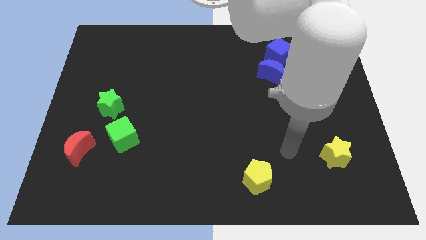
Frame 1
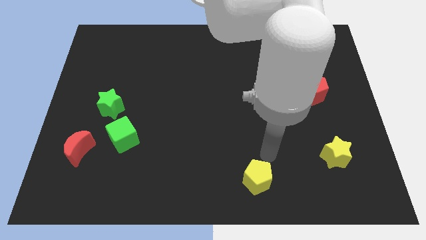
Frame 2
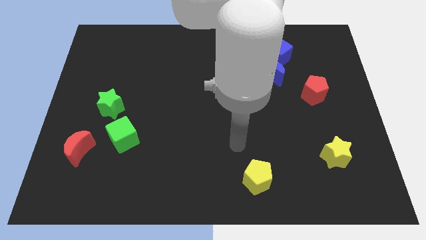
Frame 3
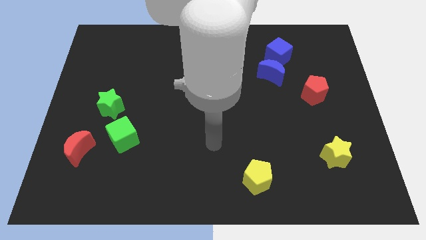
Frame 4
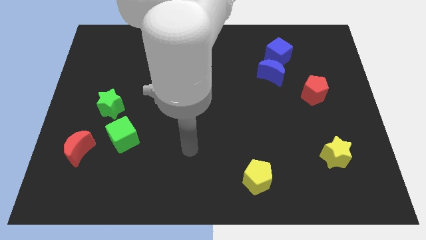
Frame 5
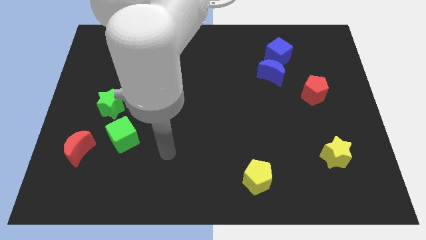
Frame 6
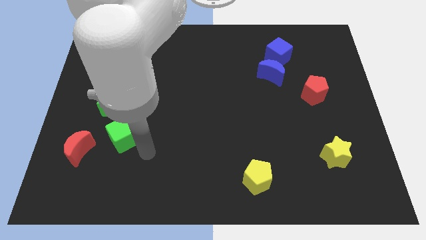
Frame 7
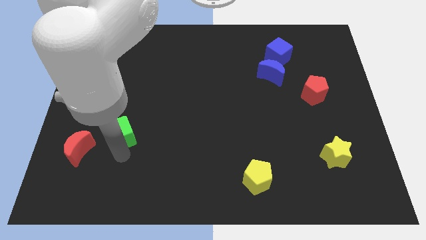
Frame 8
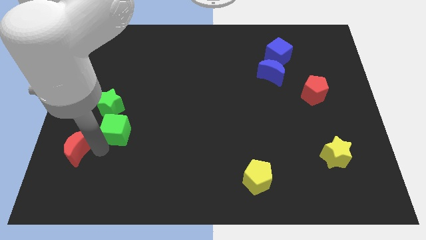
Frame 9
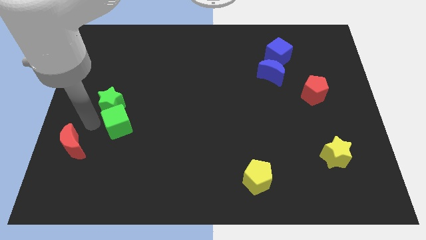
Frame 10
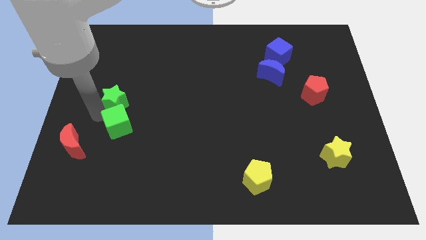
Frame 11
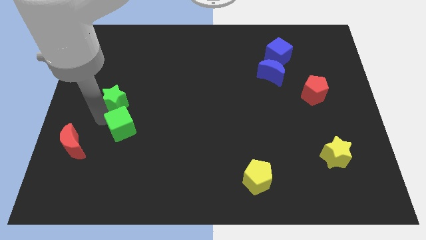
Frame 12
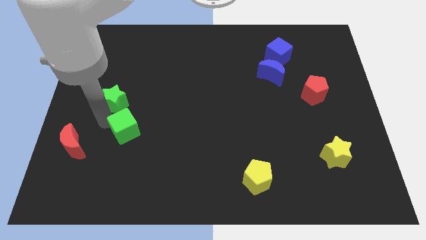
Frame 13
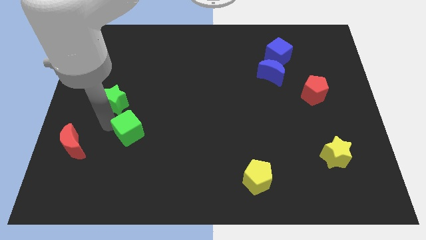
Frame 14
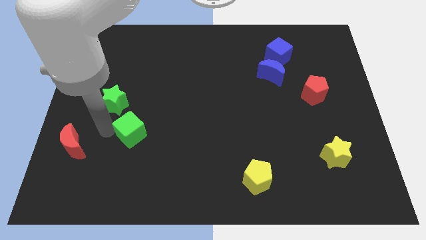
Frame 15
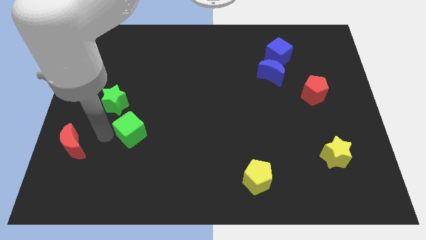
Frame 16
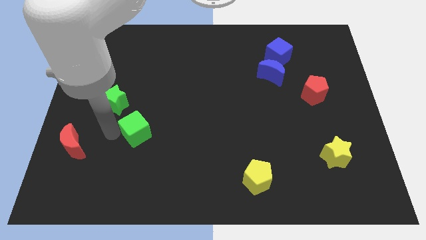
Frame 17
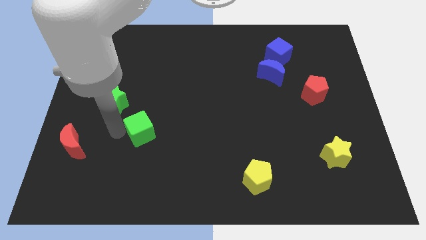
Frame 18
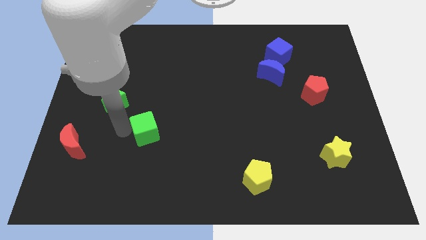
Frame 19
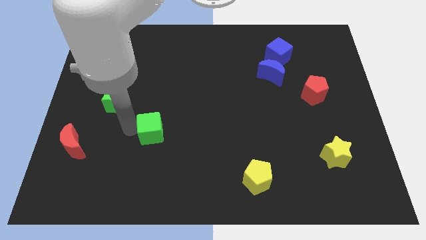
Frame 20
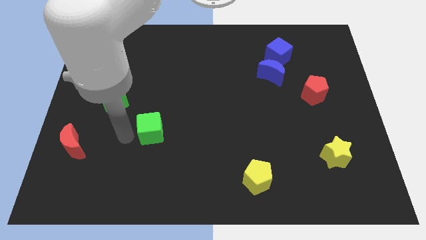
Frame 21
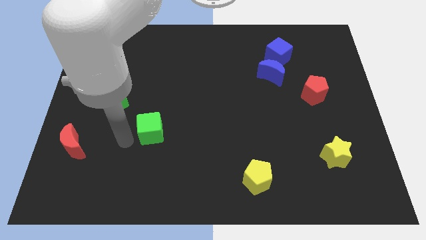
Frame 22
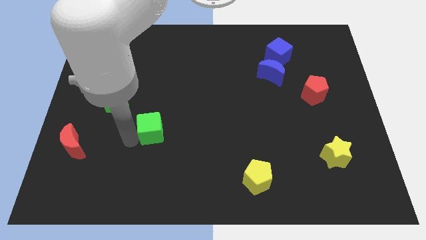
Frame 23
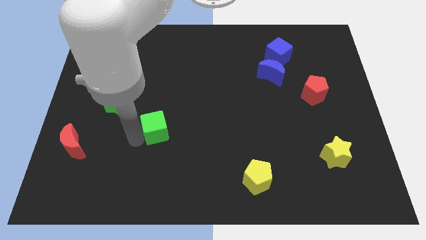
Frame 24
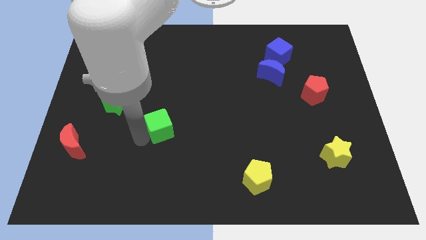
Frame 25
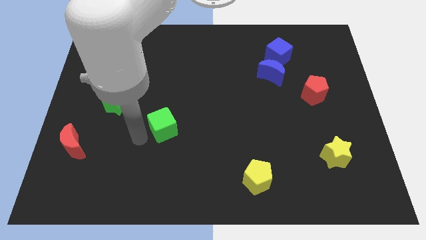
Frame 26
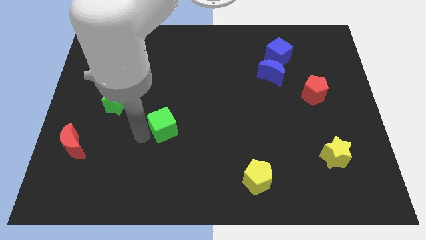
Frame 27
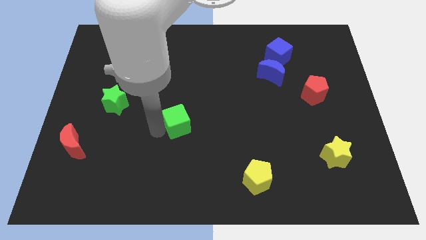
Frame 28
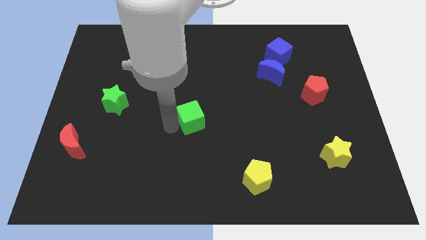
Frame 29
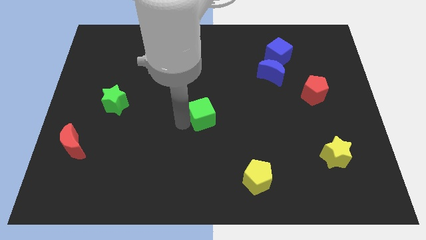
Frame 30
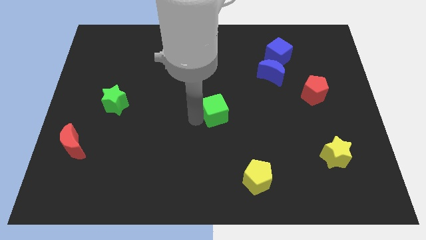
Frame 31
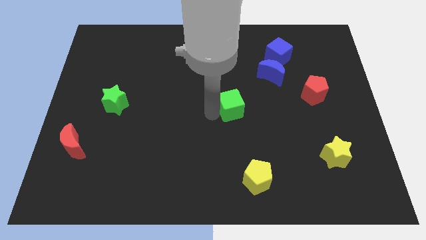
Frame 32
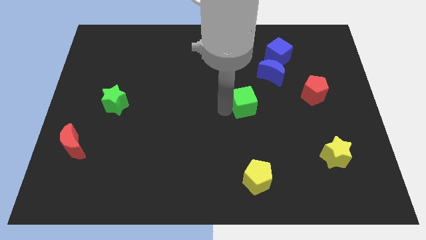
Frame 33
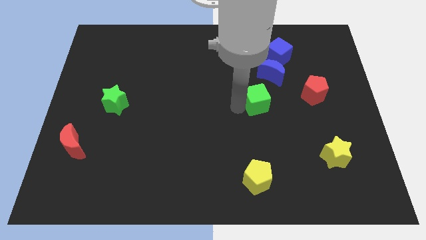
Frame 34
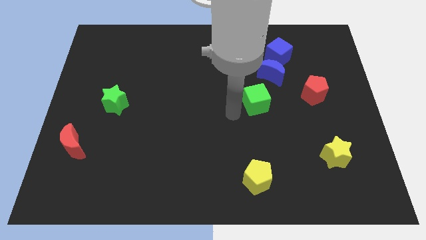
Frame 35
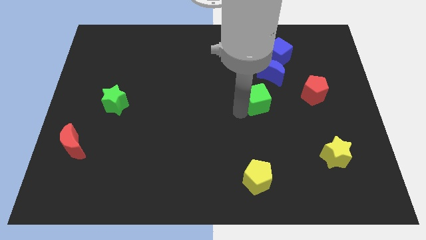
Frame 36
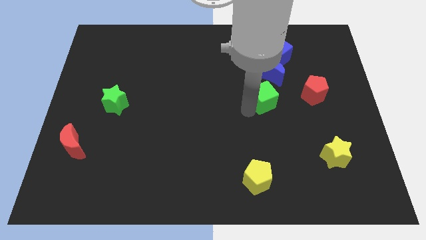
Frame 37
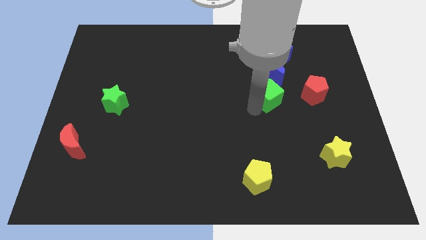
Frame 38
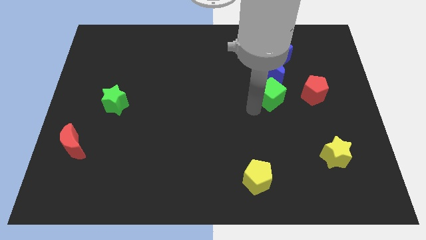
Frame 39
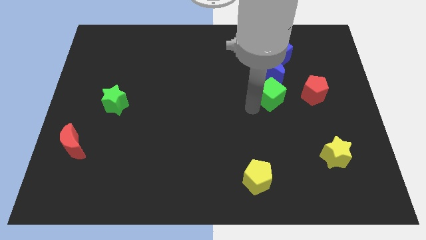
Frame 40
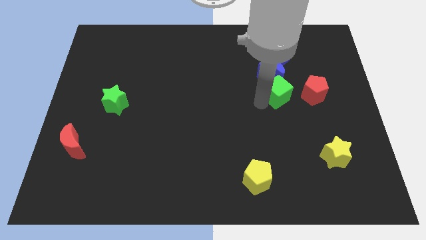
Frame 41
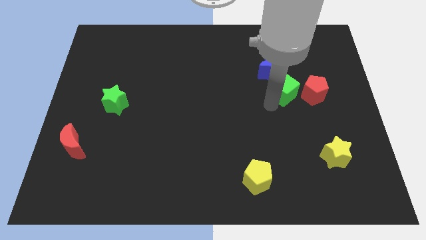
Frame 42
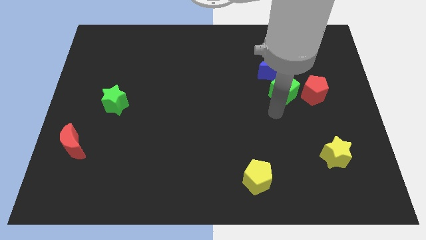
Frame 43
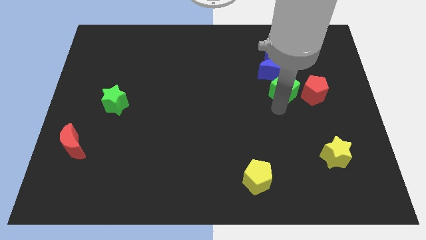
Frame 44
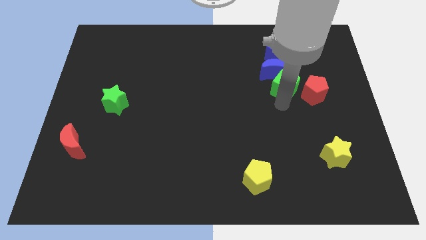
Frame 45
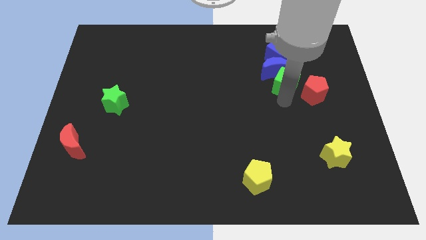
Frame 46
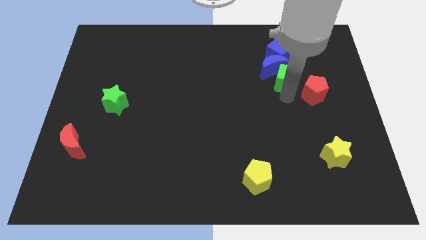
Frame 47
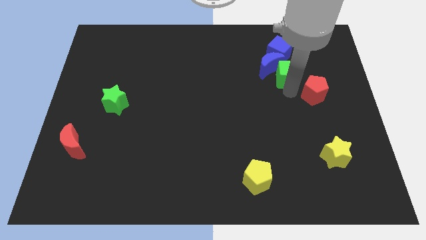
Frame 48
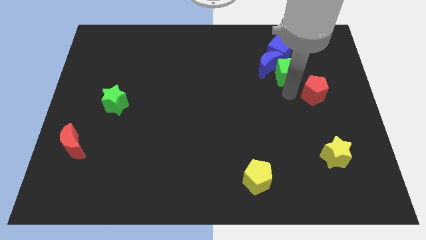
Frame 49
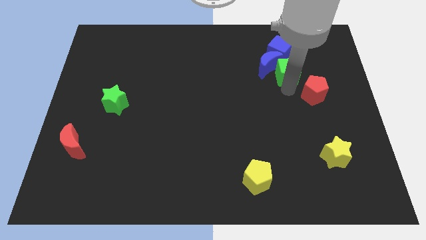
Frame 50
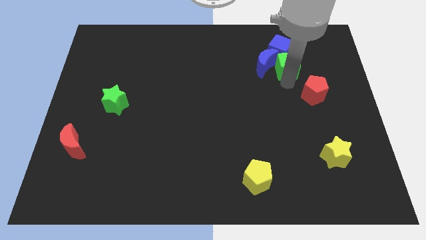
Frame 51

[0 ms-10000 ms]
push the green cube to the top right of the blue moon

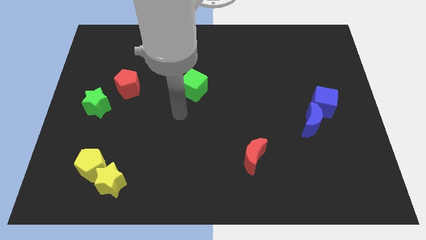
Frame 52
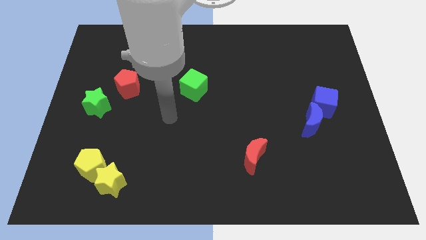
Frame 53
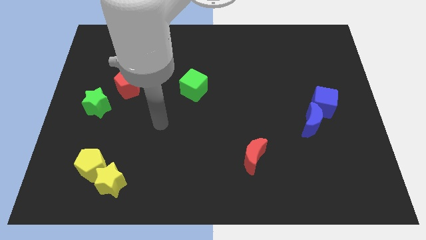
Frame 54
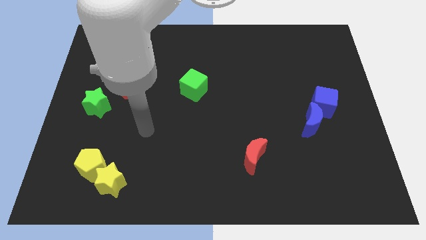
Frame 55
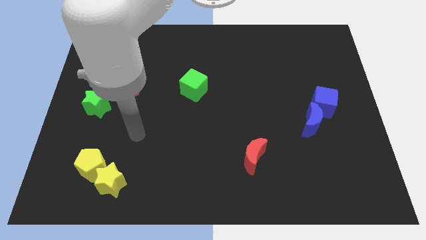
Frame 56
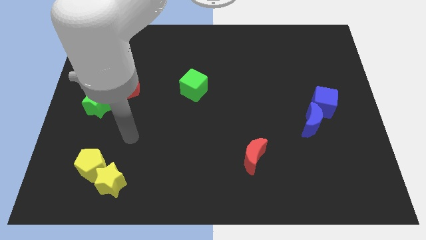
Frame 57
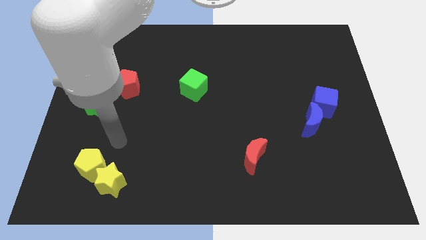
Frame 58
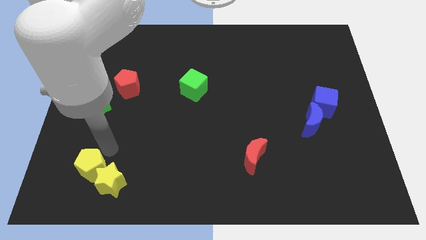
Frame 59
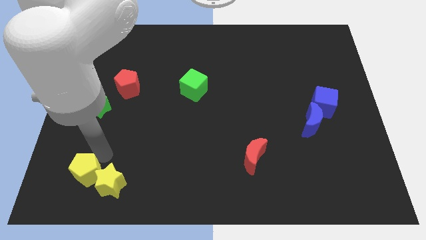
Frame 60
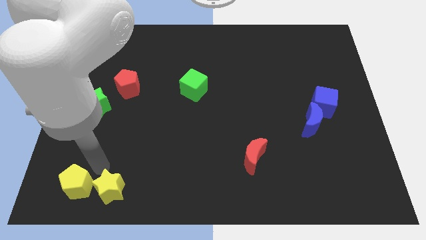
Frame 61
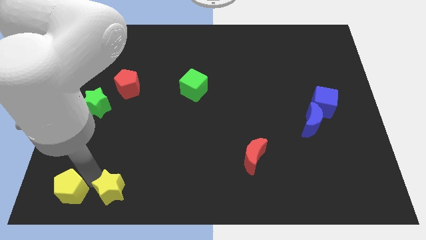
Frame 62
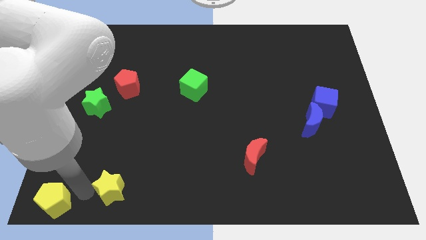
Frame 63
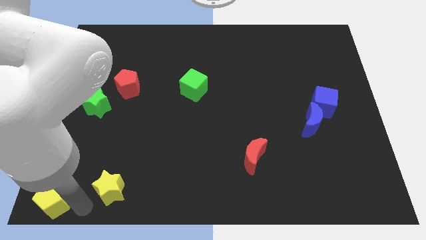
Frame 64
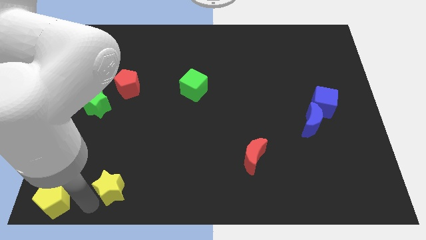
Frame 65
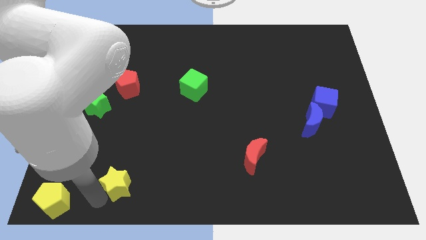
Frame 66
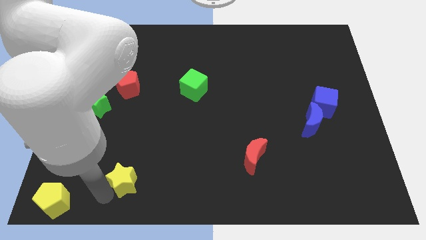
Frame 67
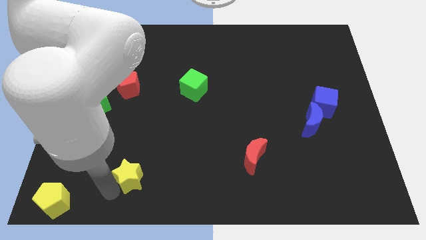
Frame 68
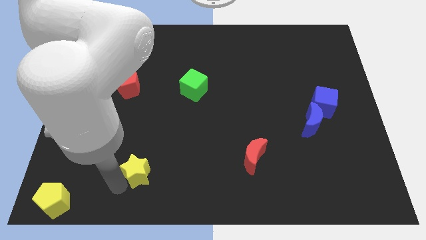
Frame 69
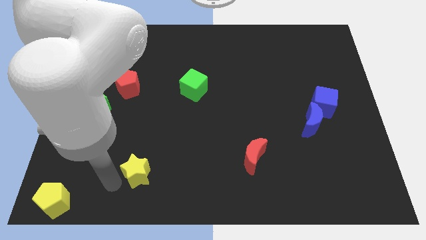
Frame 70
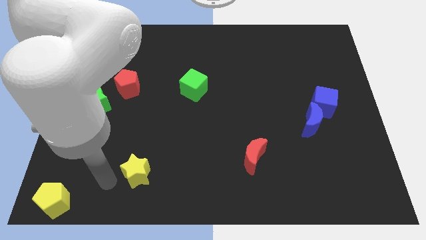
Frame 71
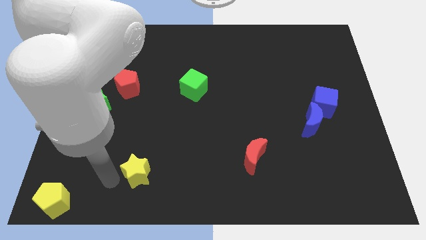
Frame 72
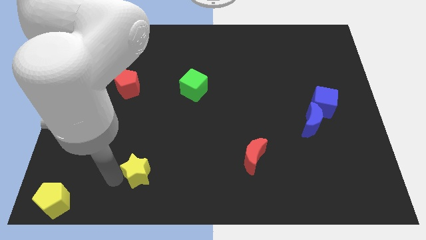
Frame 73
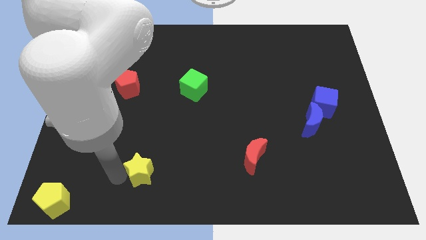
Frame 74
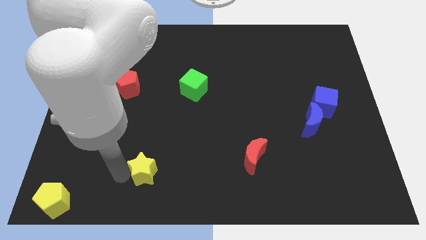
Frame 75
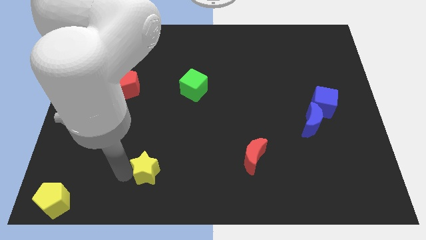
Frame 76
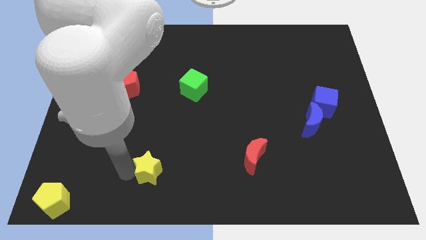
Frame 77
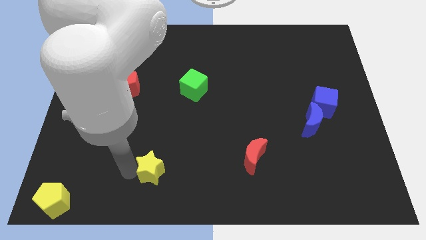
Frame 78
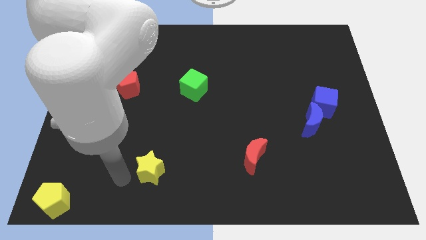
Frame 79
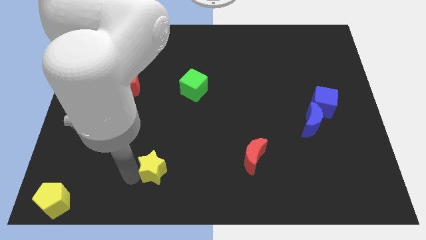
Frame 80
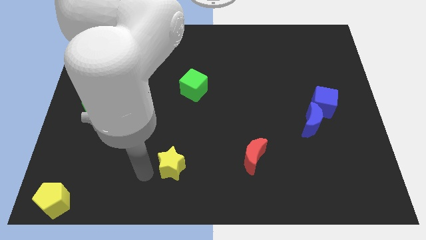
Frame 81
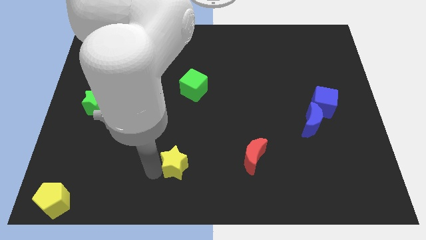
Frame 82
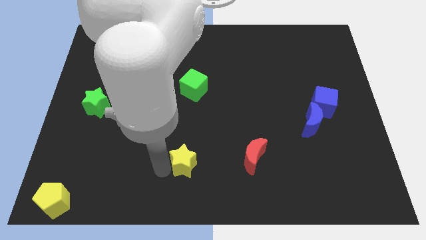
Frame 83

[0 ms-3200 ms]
slide the yellow star just left of the red moon
